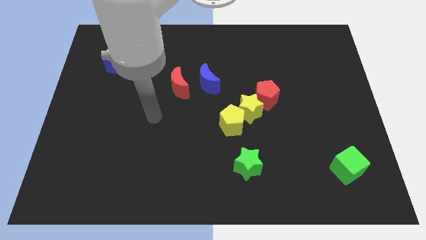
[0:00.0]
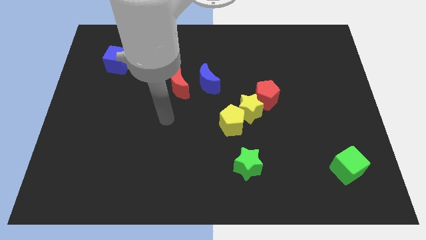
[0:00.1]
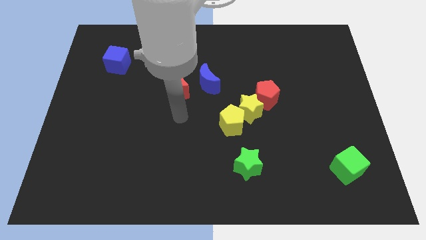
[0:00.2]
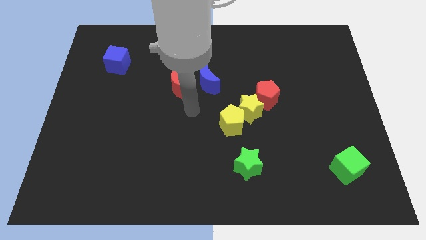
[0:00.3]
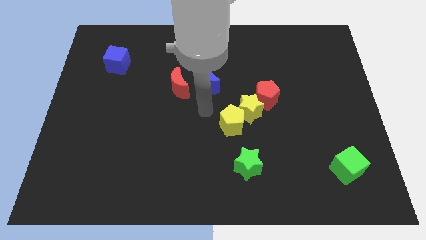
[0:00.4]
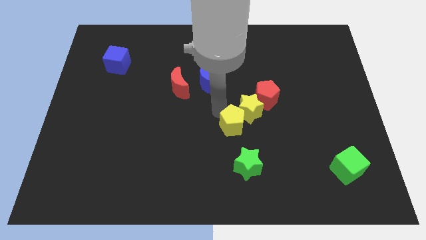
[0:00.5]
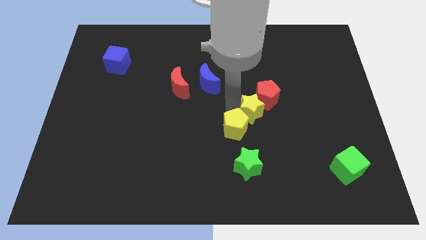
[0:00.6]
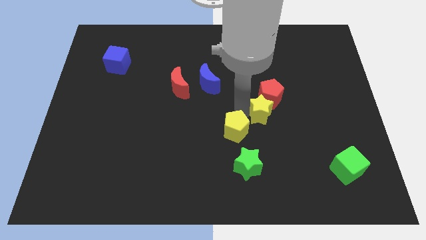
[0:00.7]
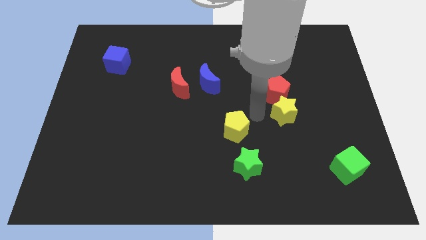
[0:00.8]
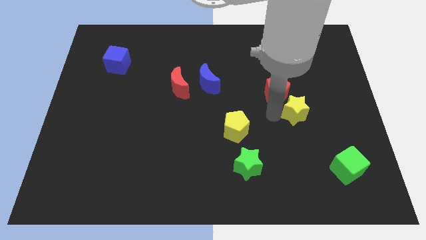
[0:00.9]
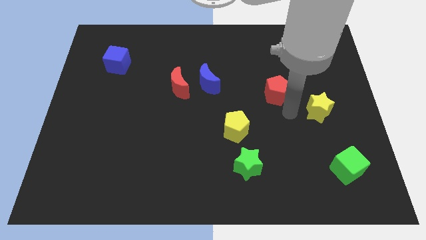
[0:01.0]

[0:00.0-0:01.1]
pull the red pentagon apart from the yellow star

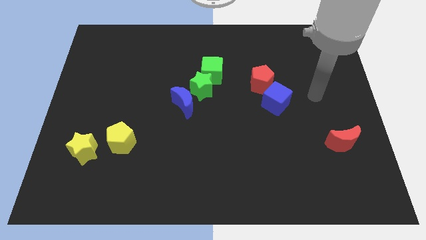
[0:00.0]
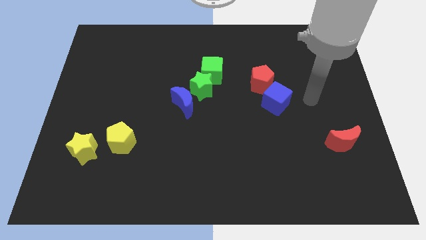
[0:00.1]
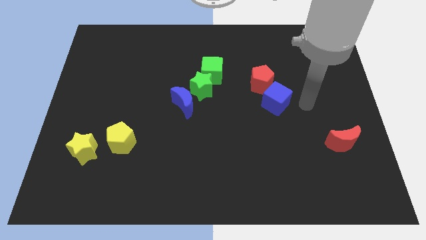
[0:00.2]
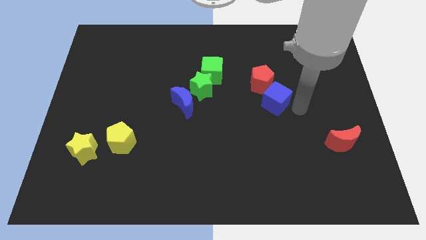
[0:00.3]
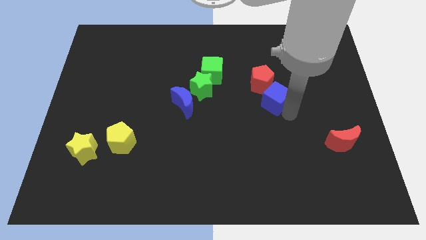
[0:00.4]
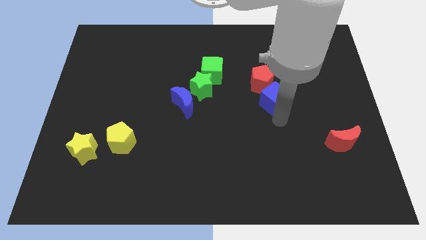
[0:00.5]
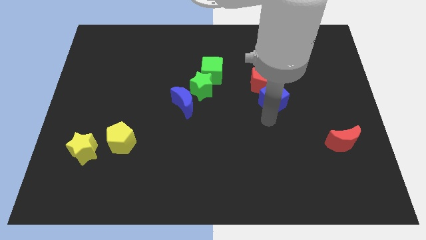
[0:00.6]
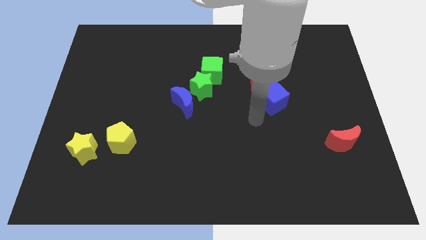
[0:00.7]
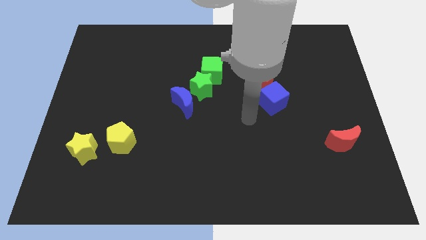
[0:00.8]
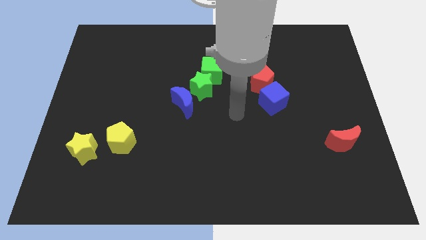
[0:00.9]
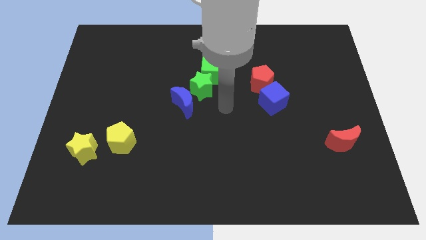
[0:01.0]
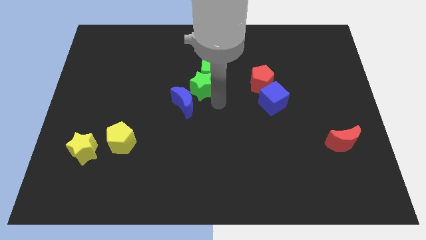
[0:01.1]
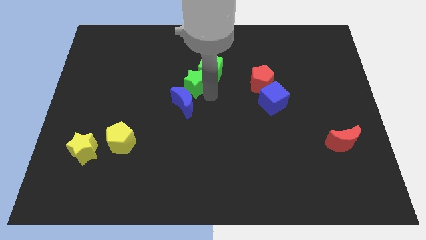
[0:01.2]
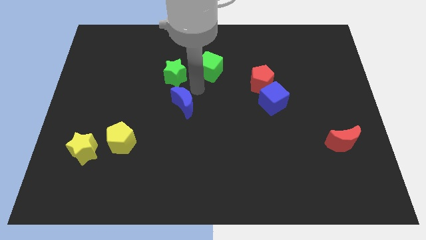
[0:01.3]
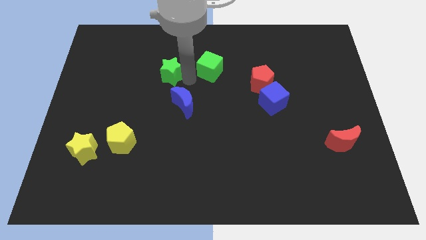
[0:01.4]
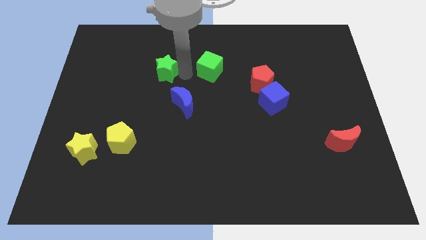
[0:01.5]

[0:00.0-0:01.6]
separate the green cube from the green star

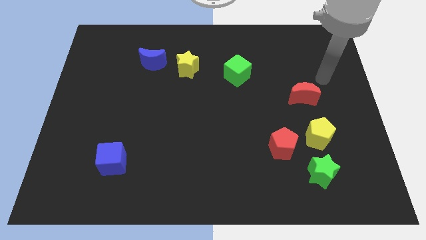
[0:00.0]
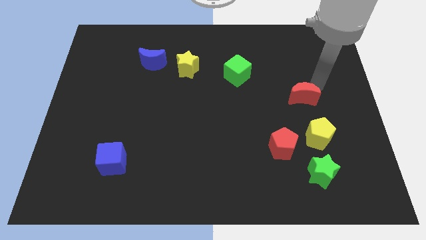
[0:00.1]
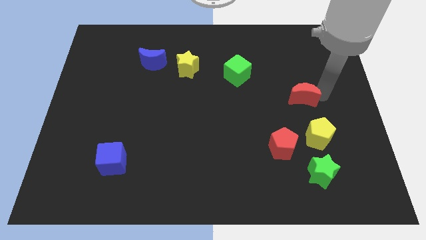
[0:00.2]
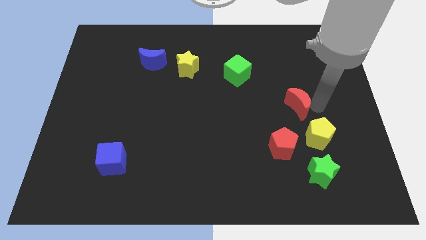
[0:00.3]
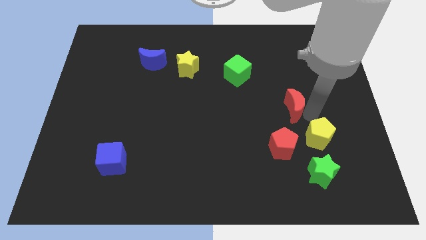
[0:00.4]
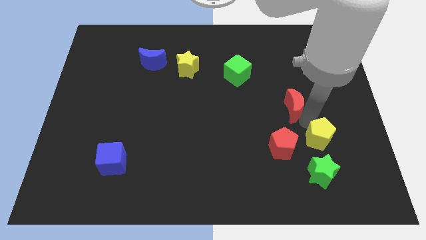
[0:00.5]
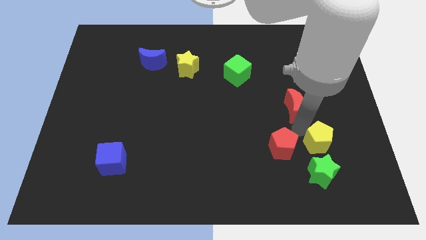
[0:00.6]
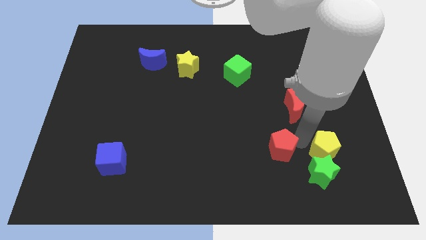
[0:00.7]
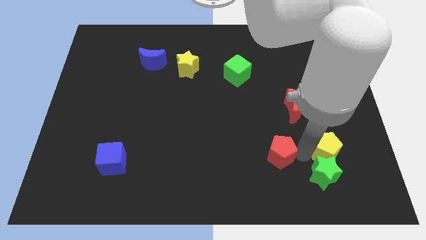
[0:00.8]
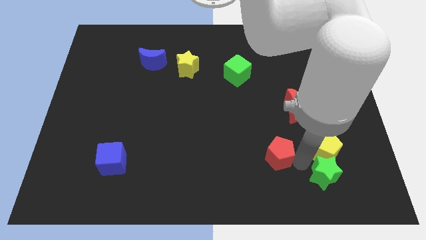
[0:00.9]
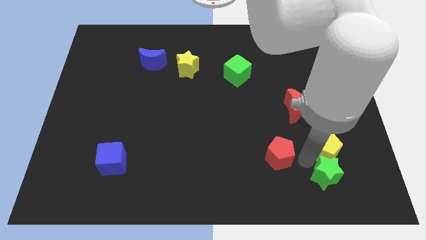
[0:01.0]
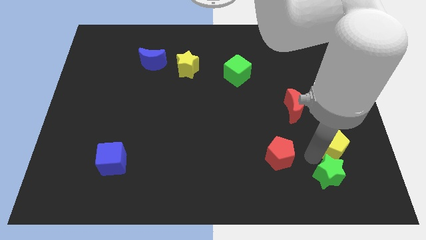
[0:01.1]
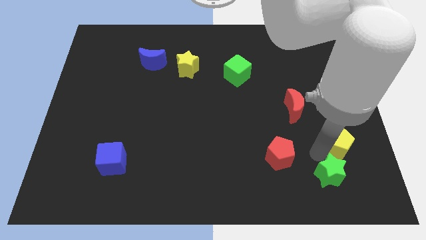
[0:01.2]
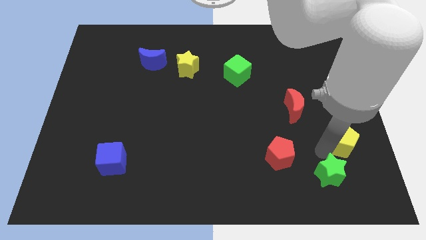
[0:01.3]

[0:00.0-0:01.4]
pull the yellow pentagon apart from the red pentagon and green star

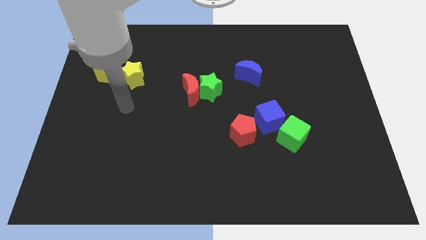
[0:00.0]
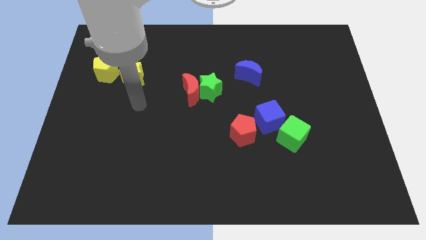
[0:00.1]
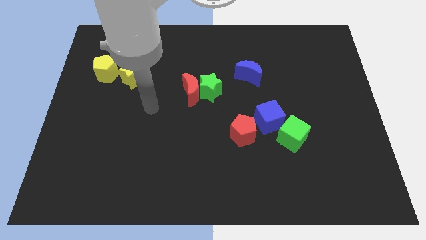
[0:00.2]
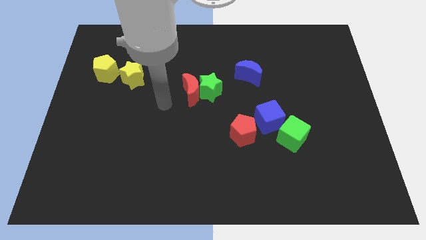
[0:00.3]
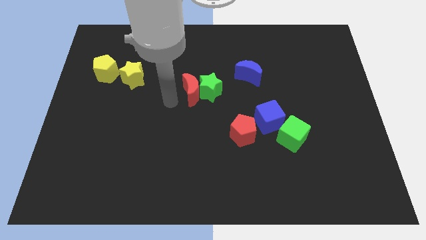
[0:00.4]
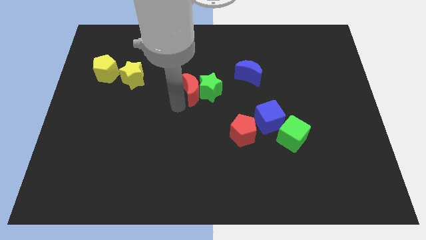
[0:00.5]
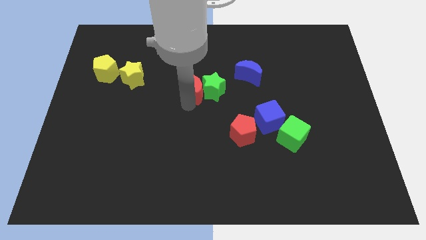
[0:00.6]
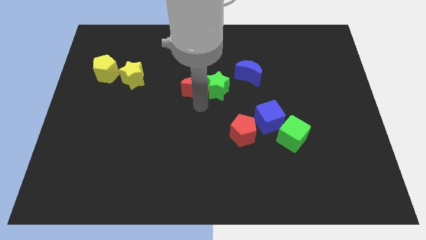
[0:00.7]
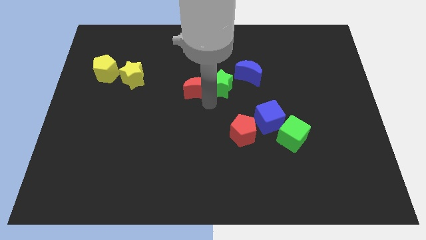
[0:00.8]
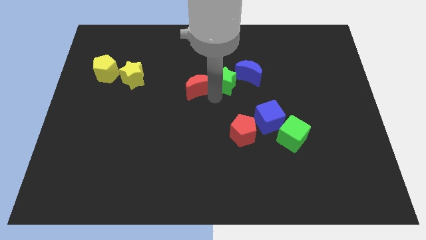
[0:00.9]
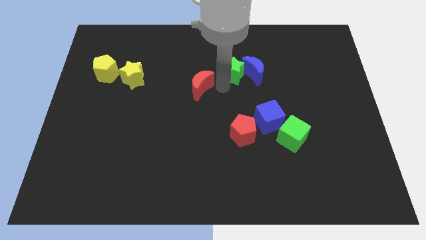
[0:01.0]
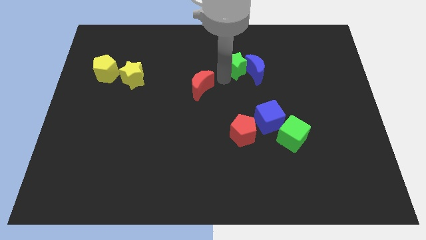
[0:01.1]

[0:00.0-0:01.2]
separate the red moon from the green star

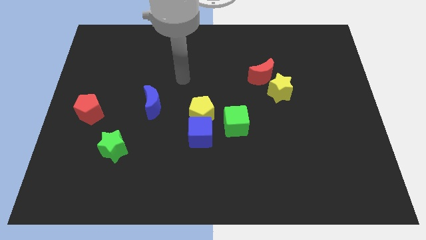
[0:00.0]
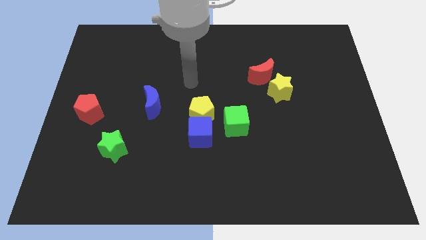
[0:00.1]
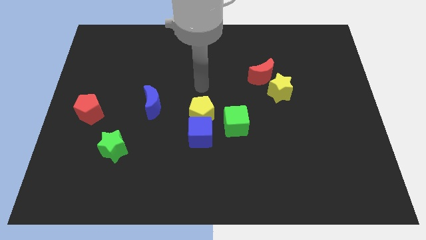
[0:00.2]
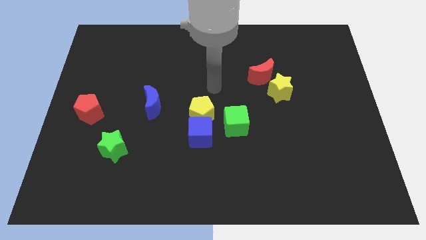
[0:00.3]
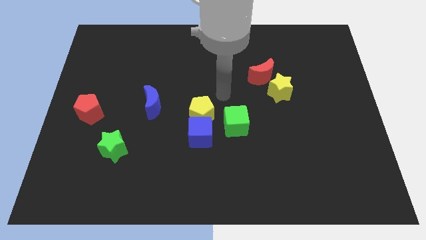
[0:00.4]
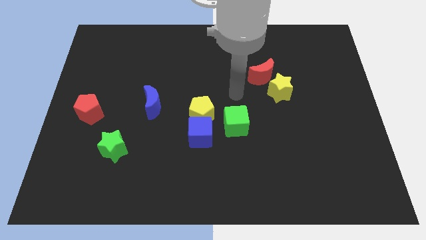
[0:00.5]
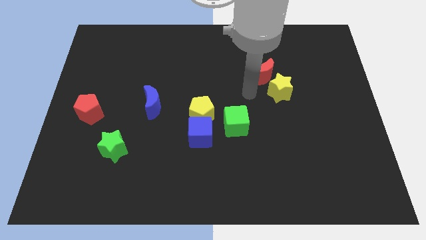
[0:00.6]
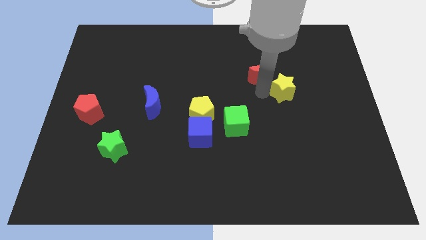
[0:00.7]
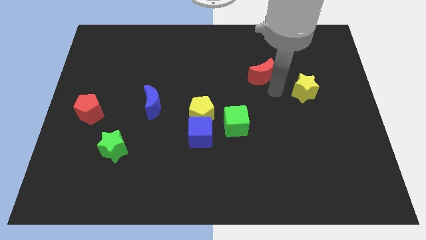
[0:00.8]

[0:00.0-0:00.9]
pull the red moon apart from the yellow star

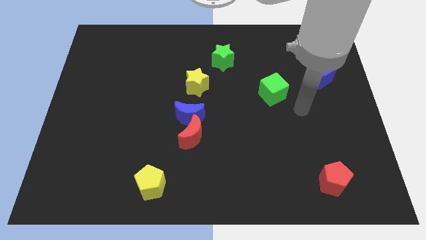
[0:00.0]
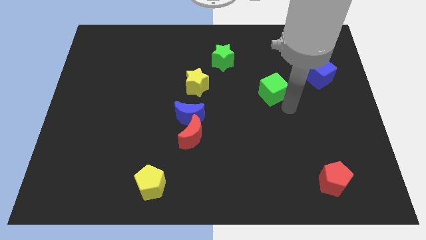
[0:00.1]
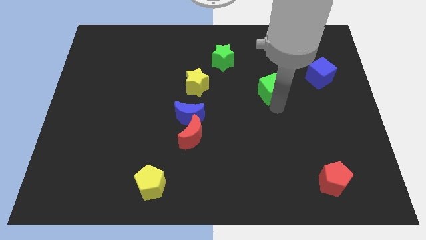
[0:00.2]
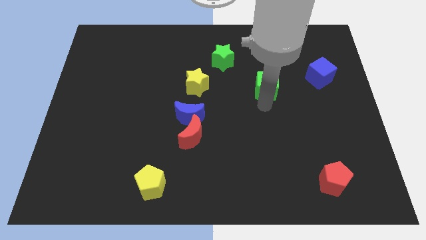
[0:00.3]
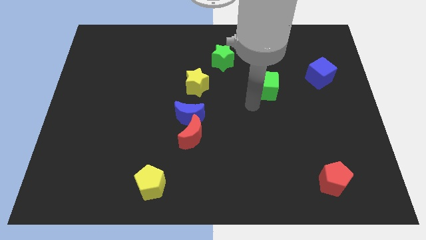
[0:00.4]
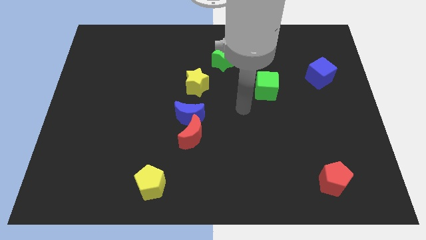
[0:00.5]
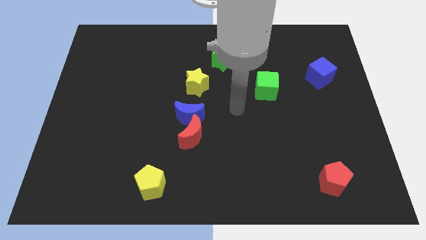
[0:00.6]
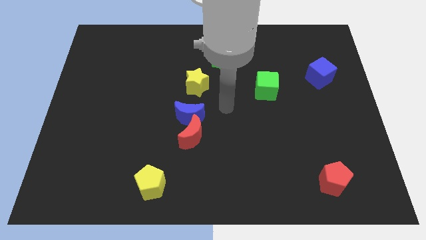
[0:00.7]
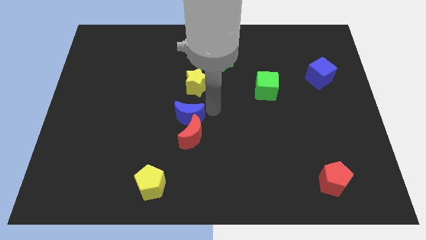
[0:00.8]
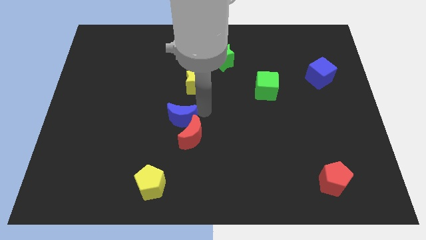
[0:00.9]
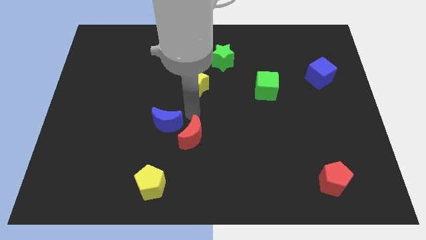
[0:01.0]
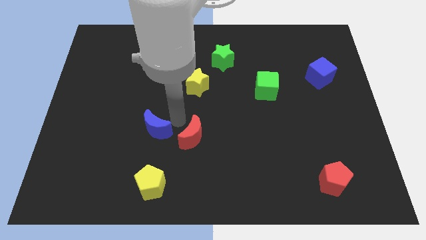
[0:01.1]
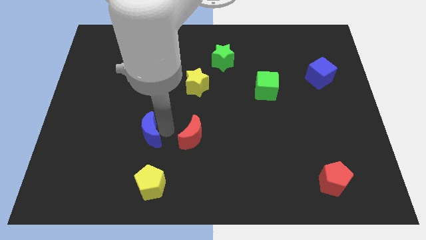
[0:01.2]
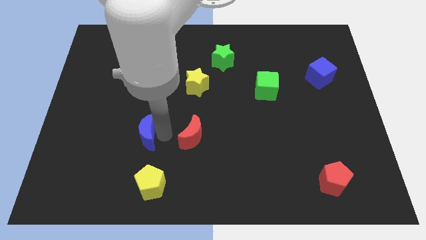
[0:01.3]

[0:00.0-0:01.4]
separate the red moon from the blue moon

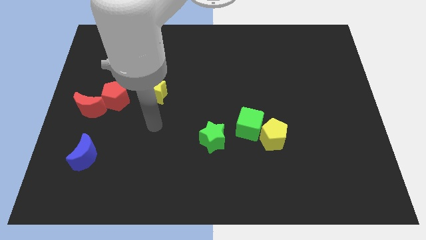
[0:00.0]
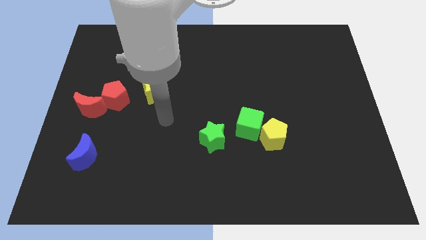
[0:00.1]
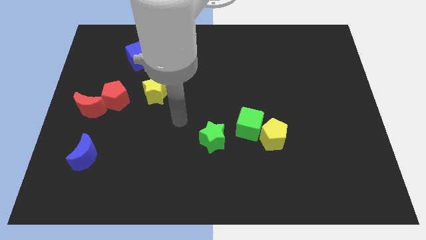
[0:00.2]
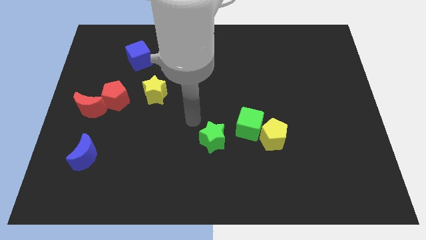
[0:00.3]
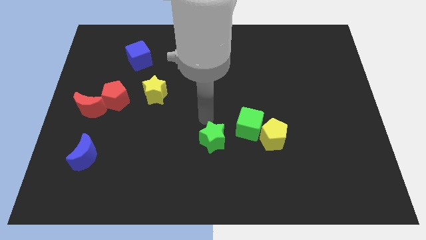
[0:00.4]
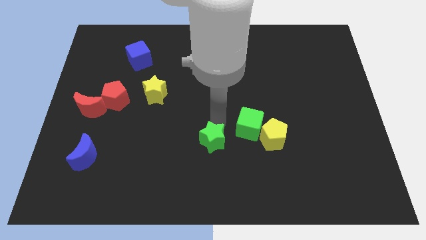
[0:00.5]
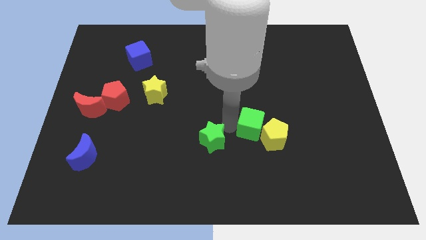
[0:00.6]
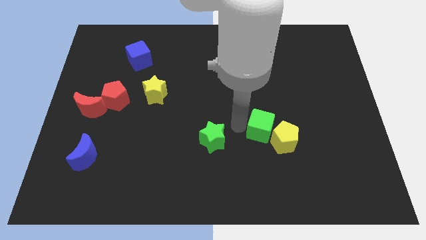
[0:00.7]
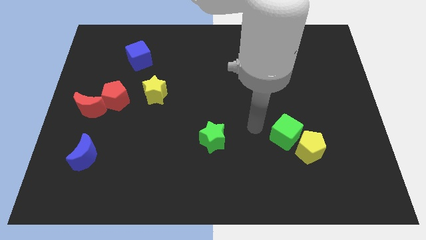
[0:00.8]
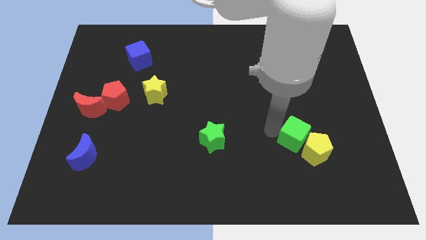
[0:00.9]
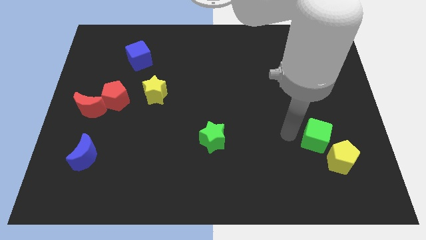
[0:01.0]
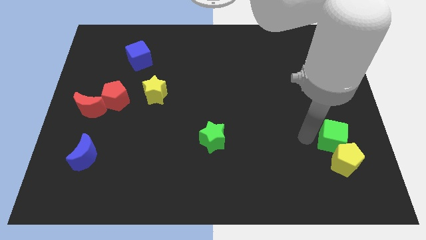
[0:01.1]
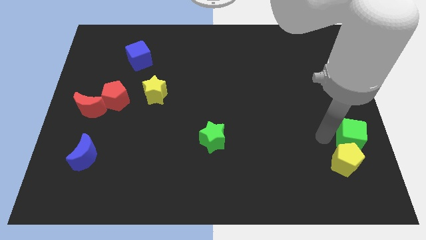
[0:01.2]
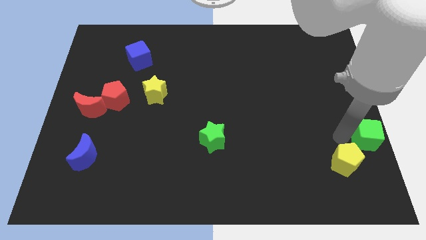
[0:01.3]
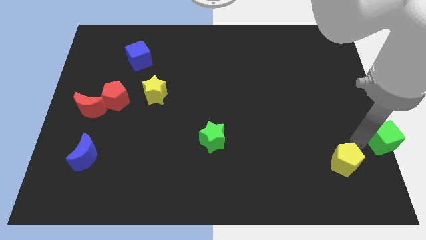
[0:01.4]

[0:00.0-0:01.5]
move the yellow pentagon away from the green cube

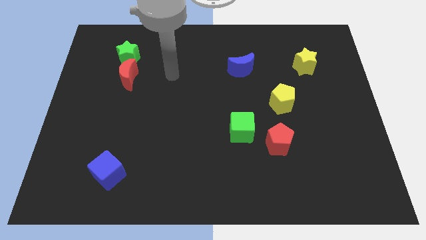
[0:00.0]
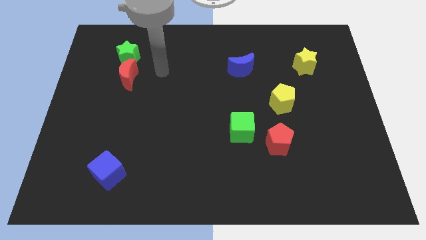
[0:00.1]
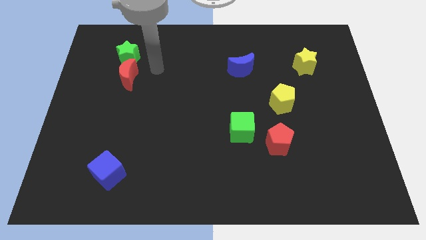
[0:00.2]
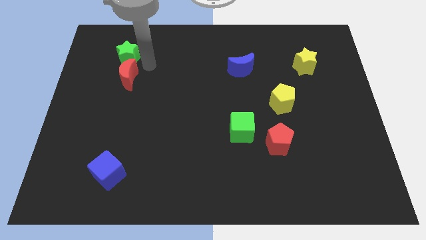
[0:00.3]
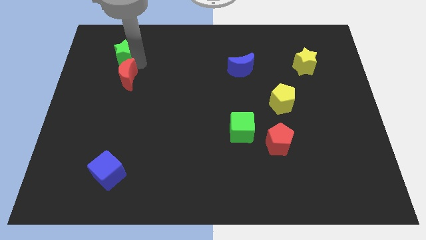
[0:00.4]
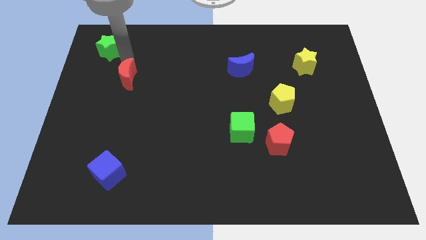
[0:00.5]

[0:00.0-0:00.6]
move the red moon away from the green star
